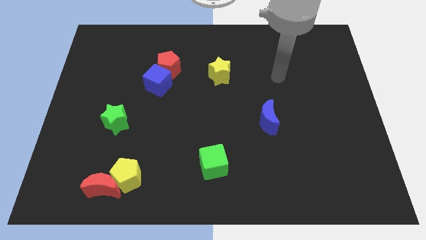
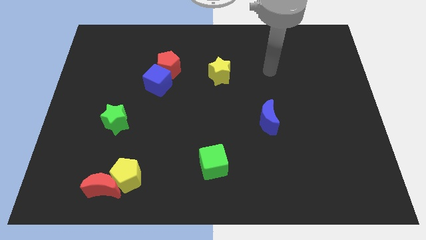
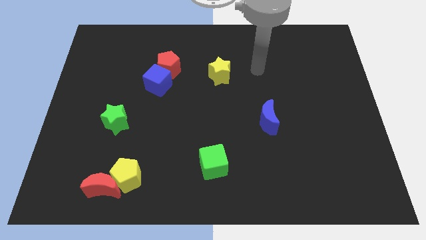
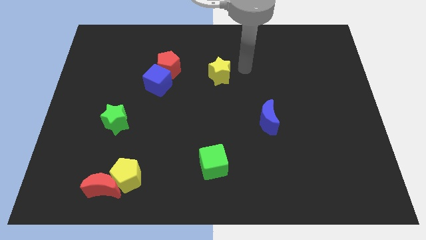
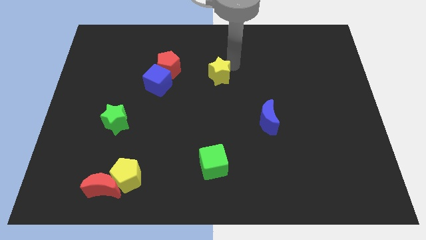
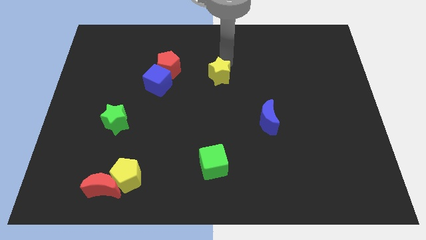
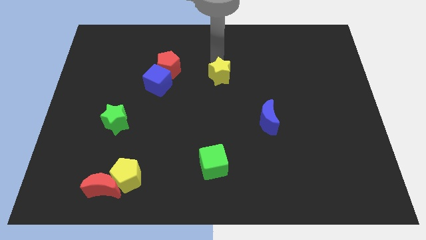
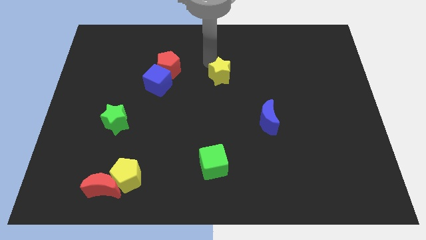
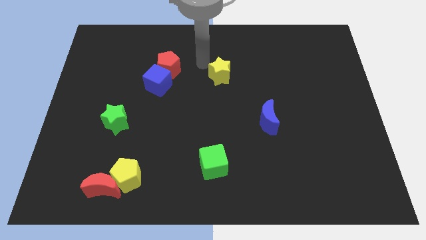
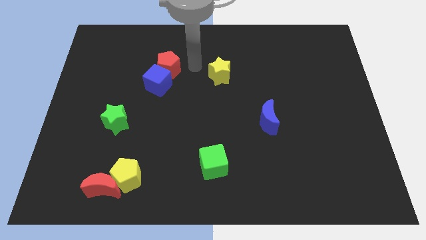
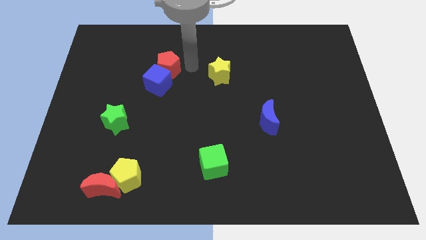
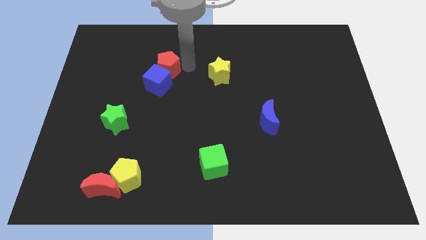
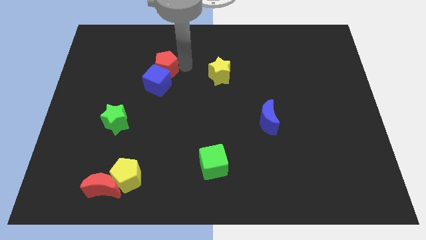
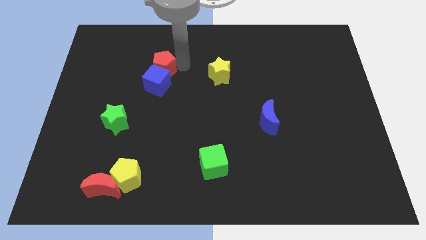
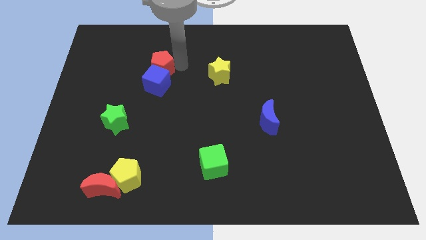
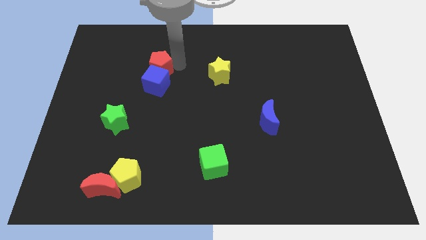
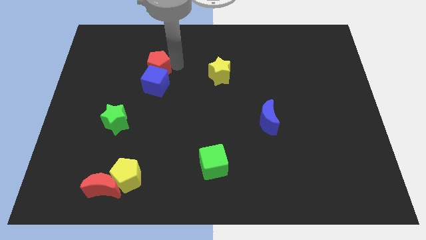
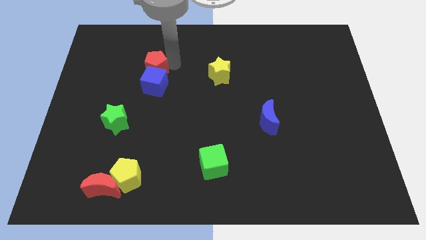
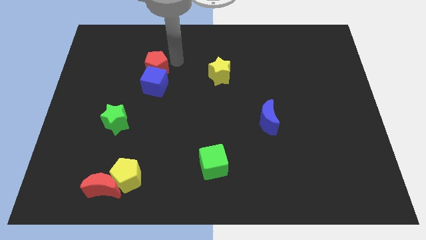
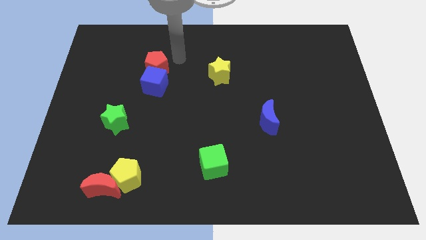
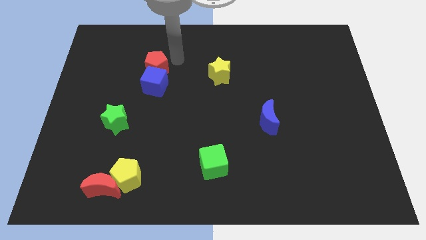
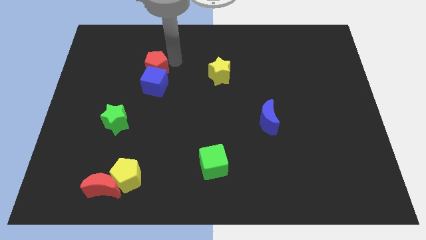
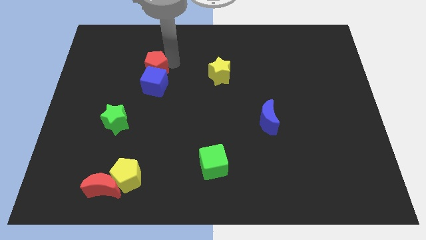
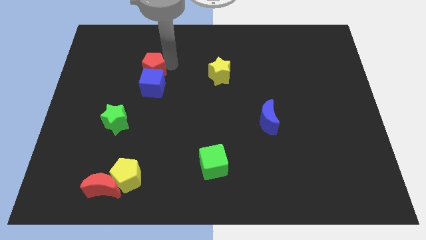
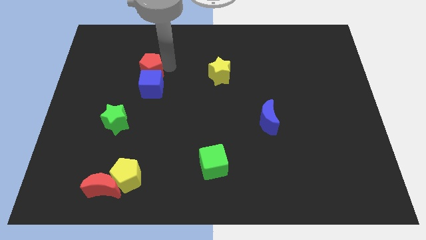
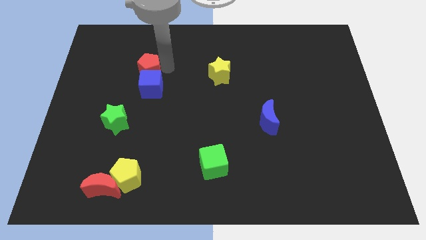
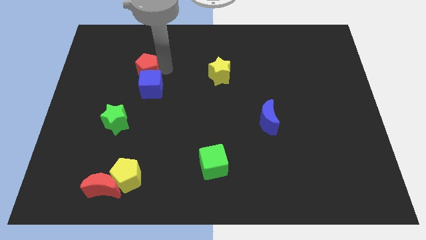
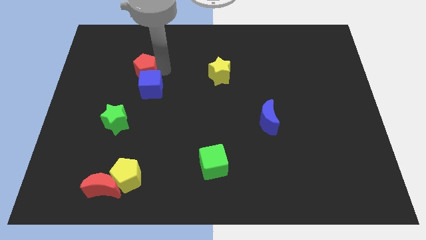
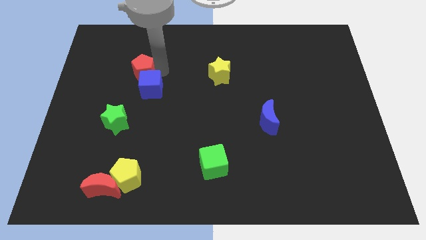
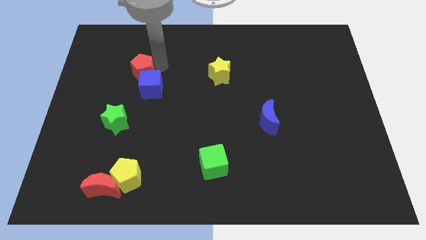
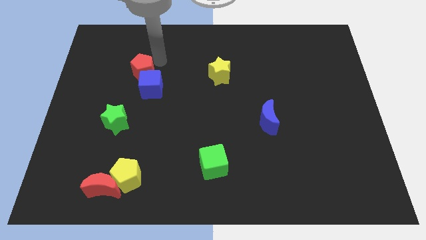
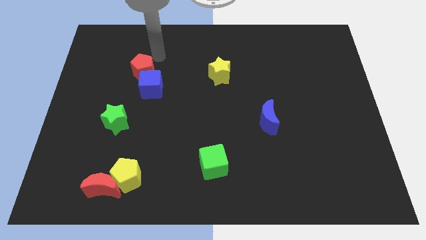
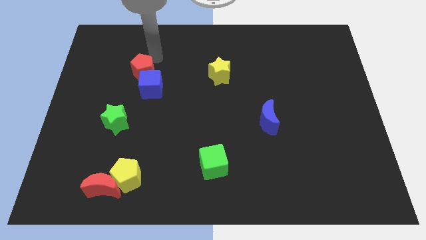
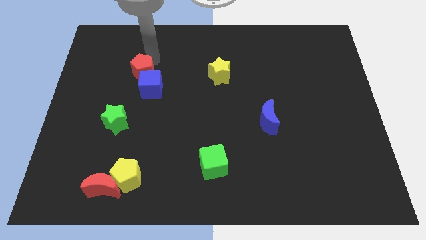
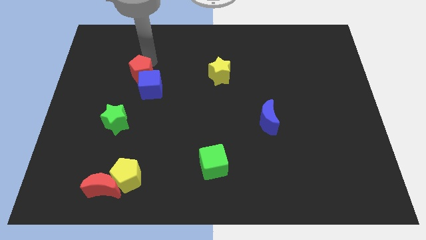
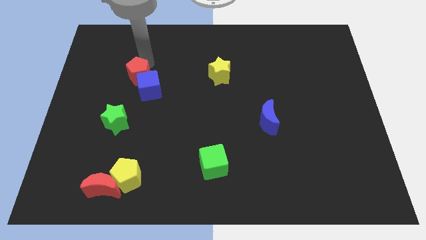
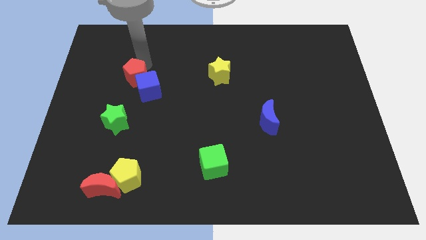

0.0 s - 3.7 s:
slightly slide the red pentagon down and to the left

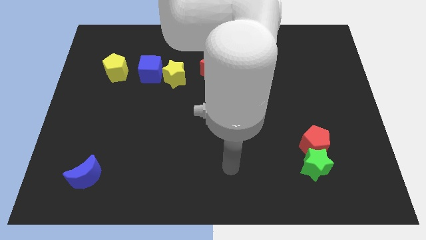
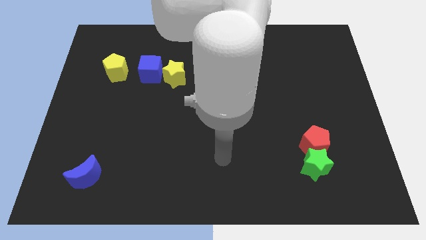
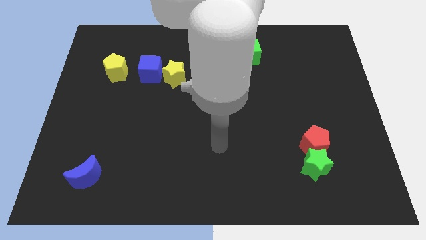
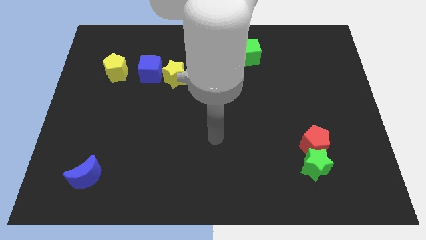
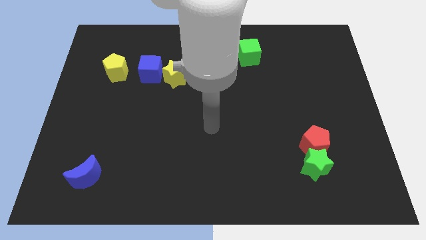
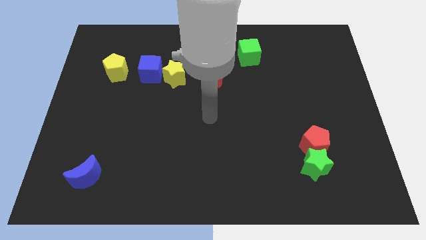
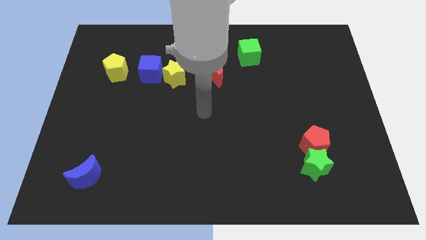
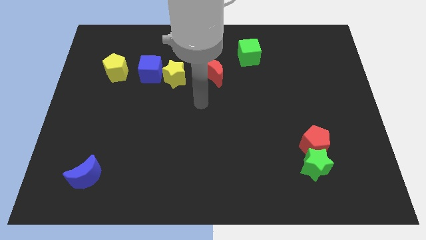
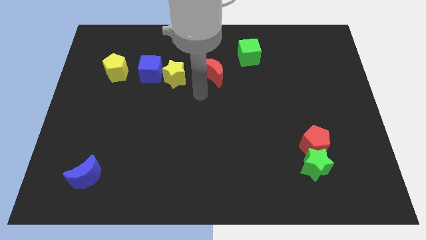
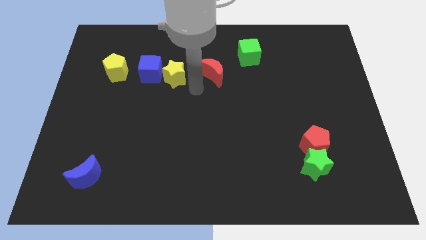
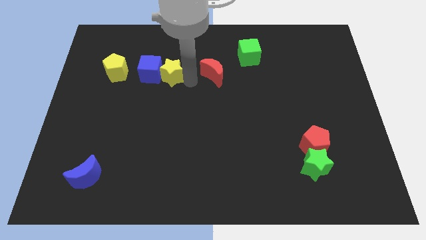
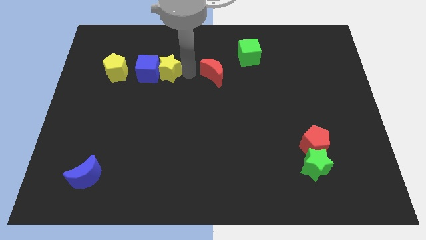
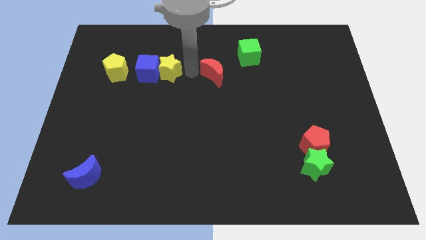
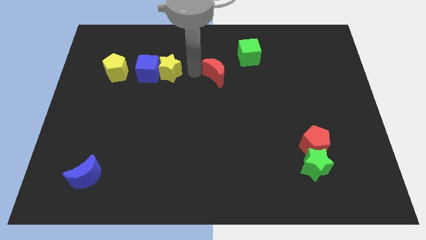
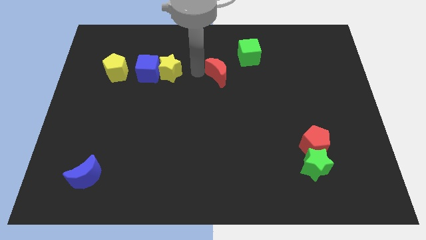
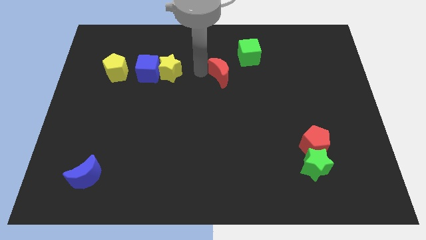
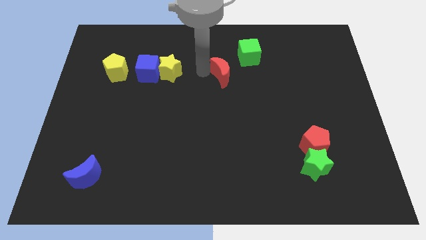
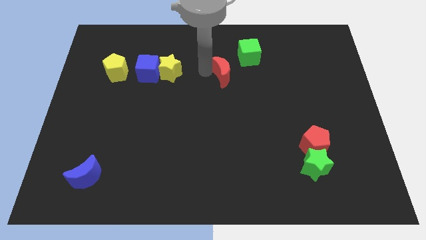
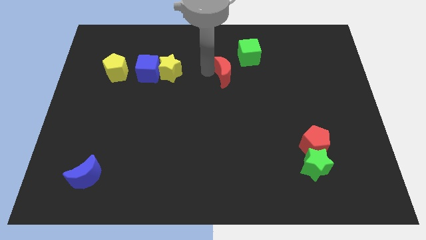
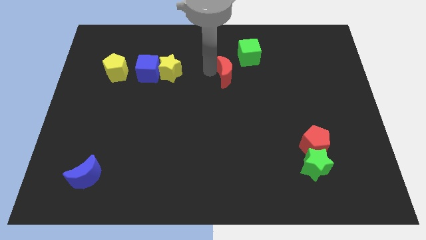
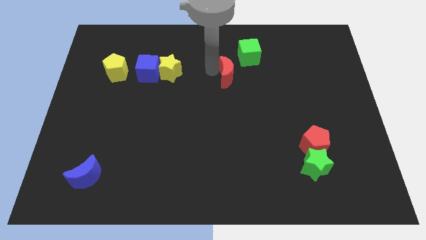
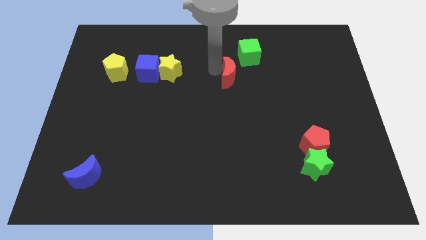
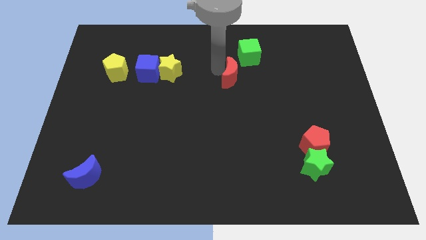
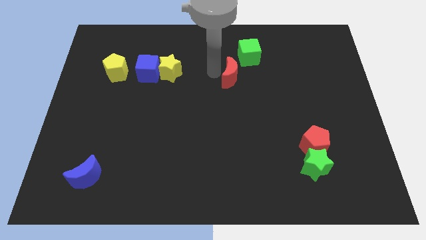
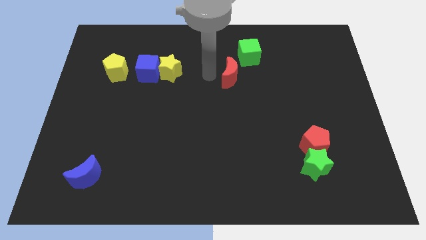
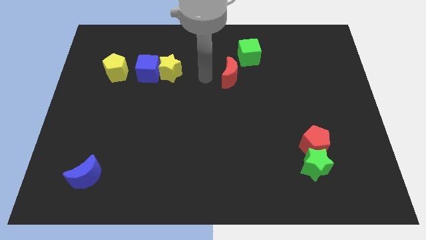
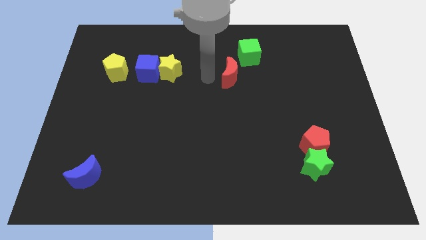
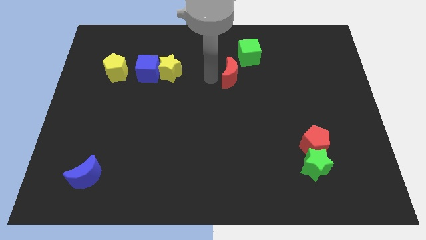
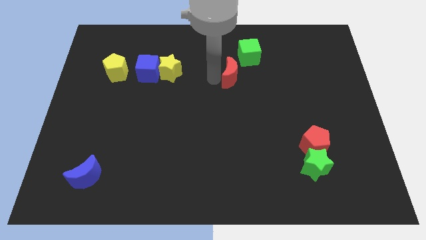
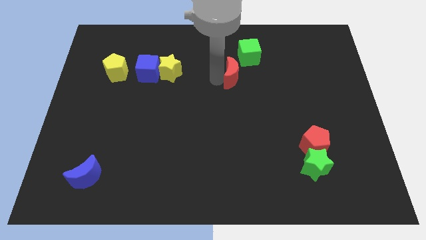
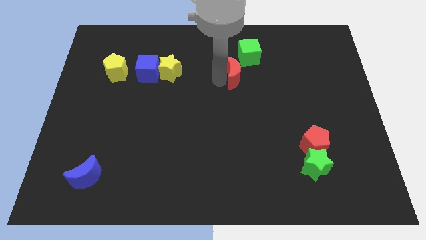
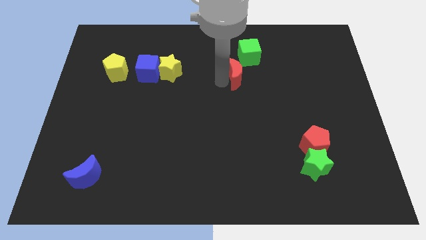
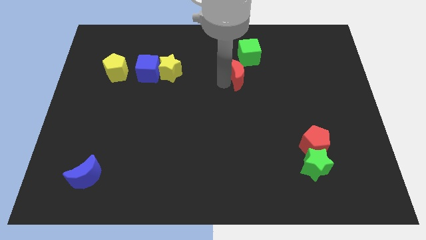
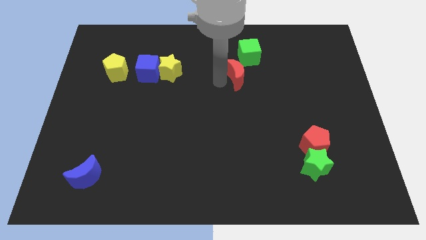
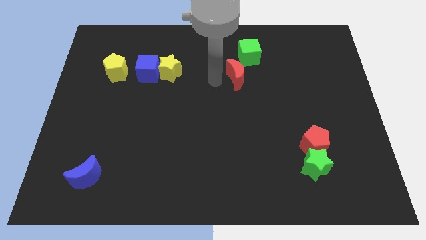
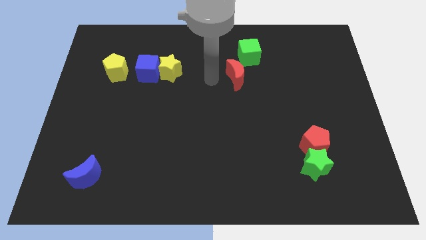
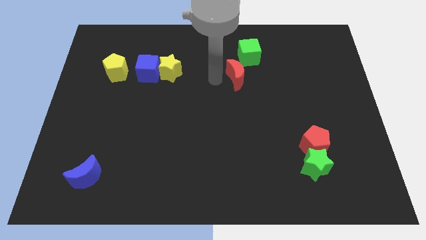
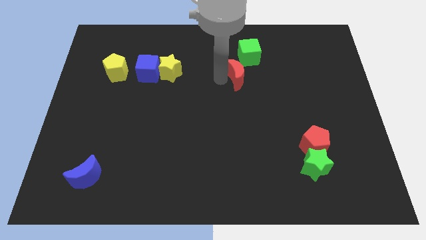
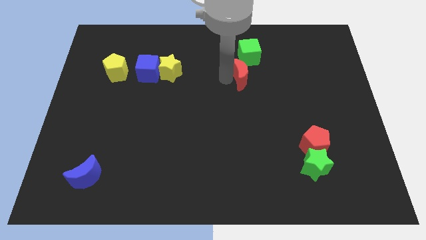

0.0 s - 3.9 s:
push the red moon right somewhat

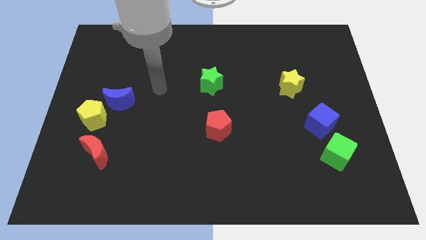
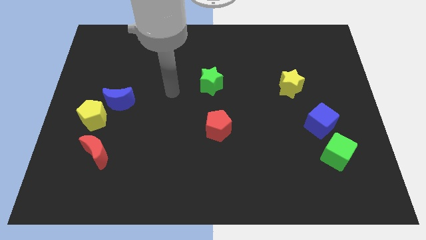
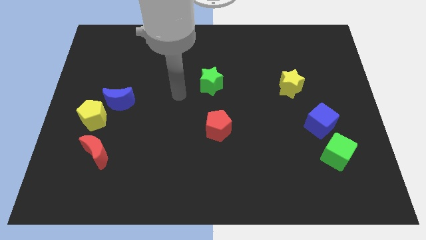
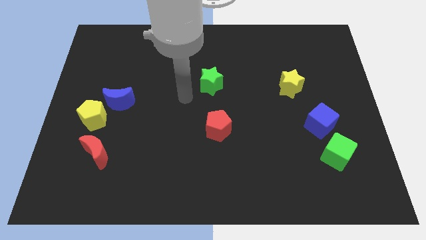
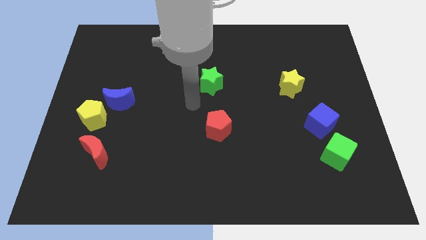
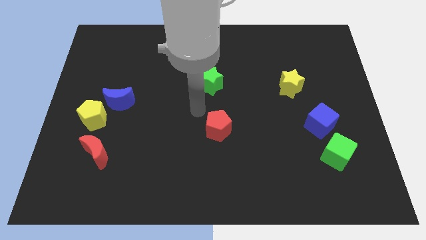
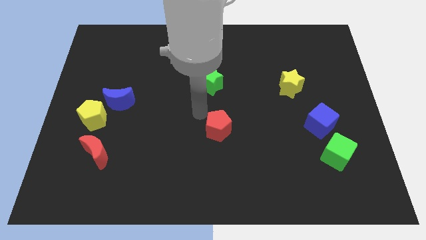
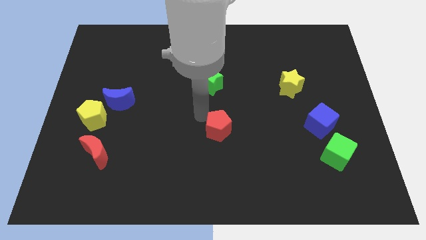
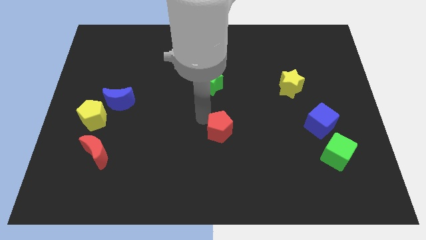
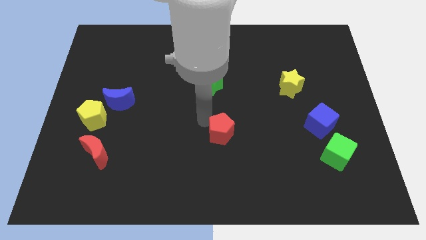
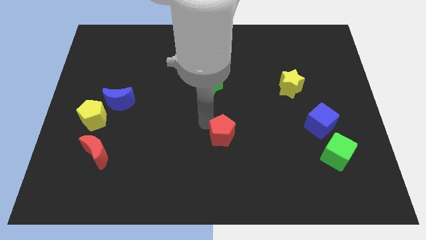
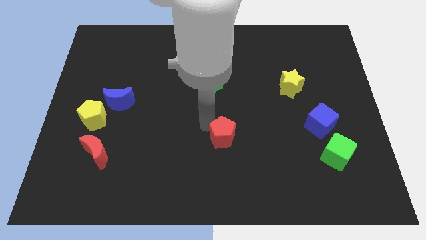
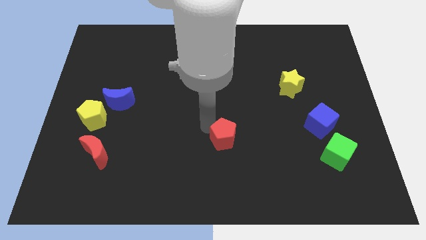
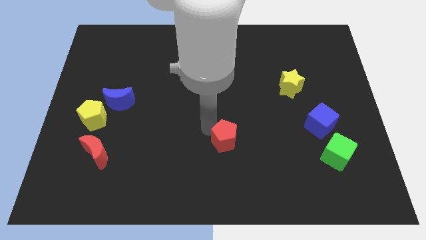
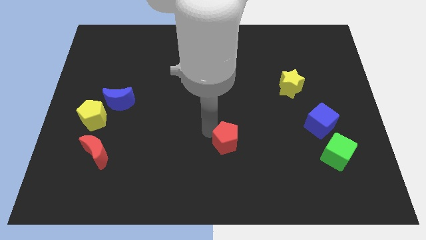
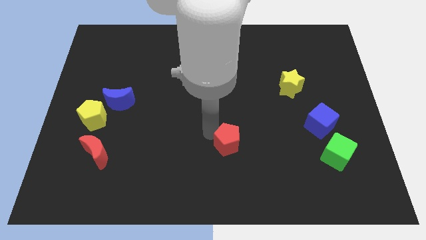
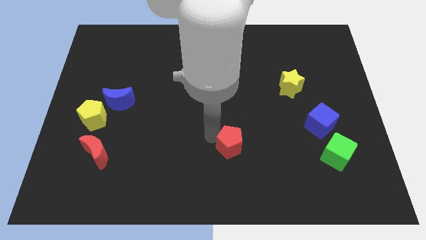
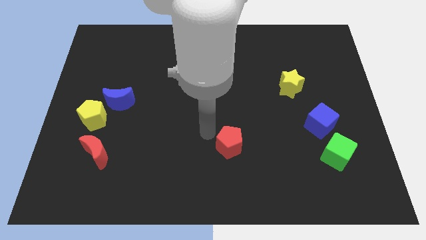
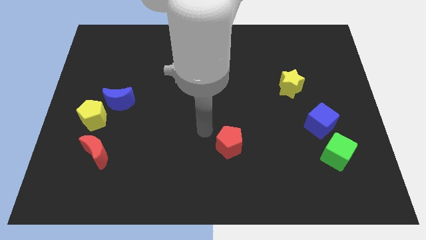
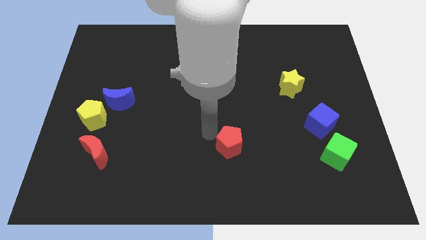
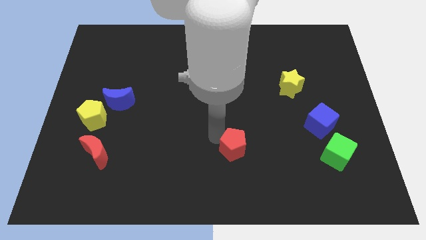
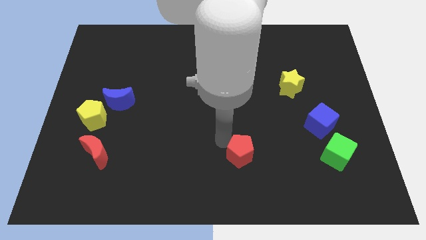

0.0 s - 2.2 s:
slide the red pentagon a little diagonally down and right
